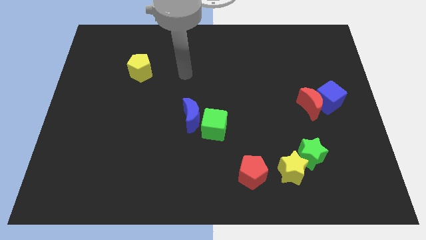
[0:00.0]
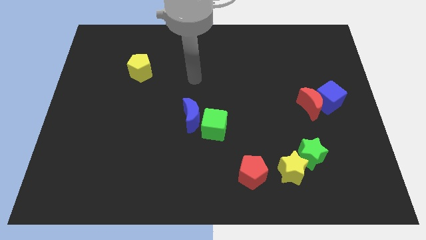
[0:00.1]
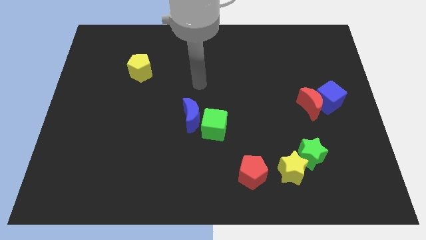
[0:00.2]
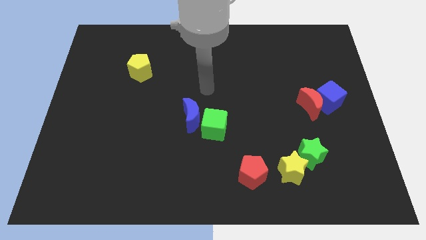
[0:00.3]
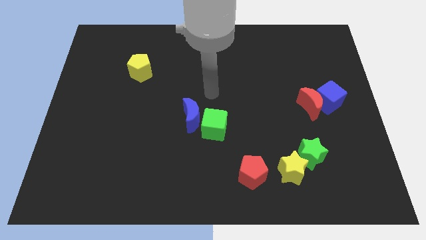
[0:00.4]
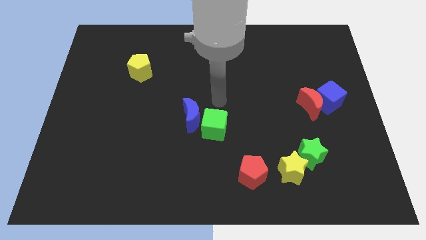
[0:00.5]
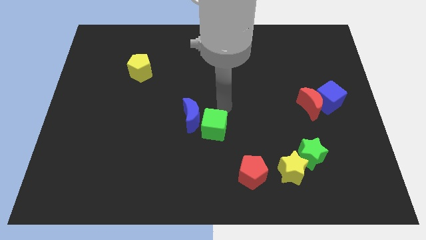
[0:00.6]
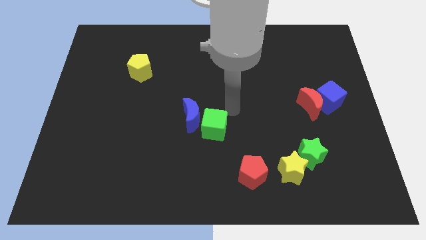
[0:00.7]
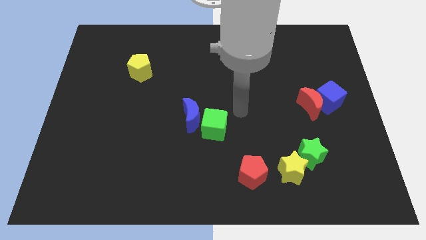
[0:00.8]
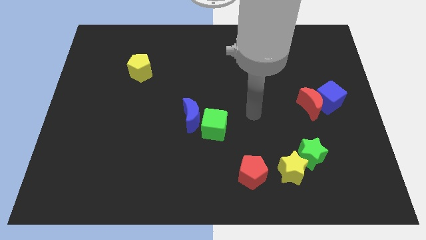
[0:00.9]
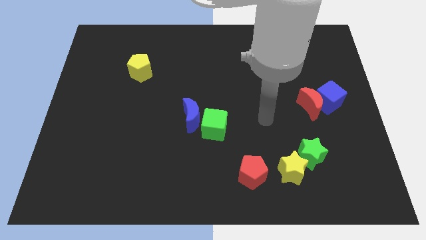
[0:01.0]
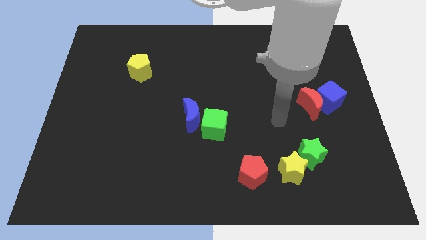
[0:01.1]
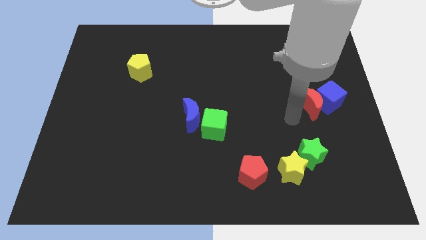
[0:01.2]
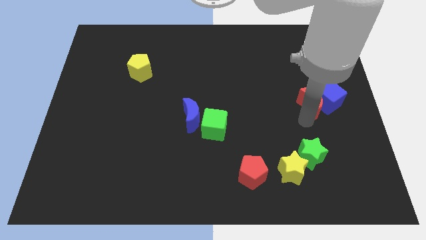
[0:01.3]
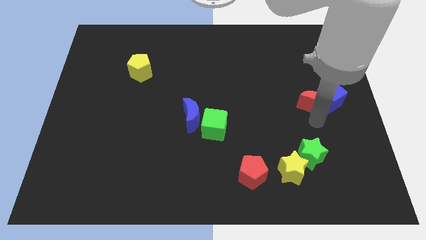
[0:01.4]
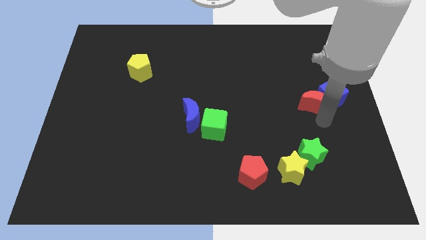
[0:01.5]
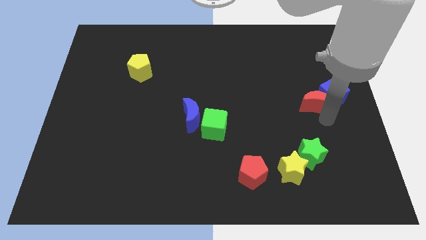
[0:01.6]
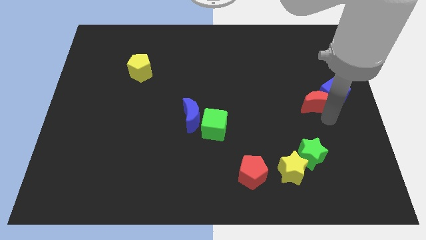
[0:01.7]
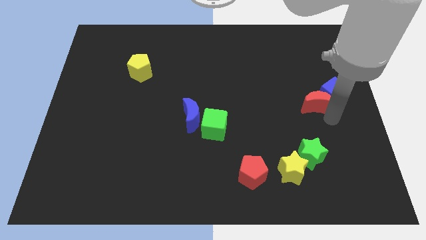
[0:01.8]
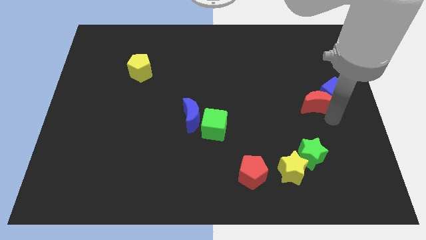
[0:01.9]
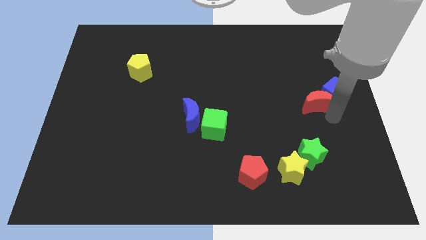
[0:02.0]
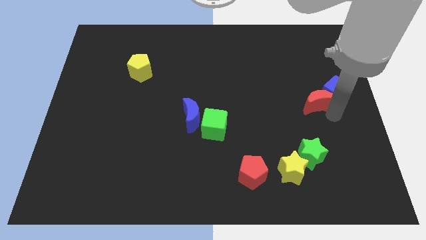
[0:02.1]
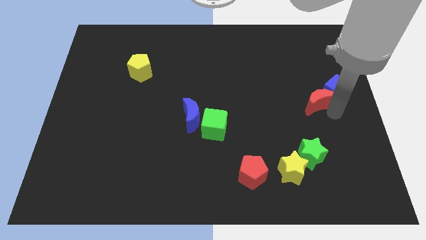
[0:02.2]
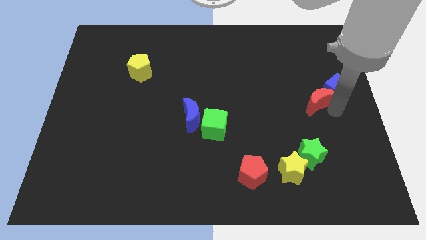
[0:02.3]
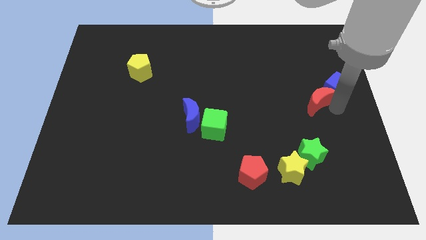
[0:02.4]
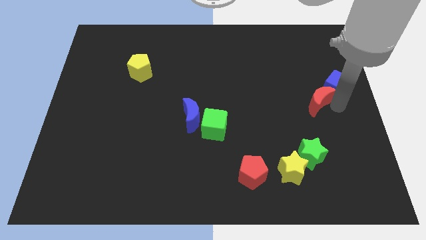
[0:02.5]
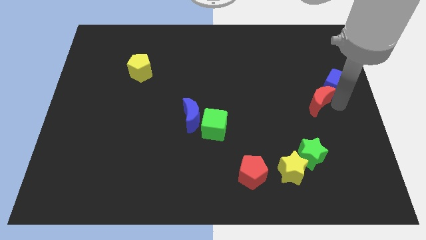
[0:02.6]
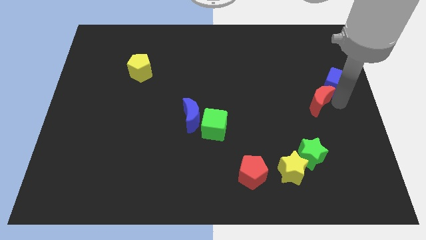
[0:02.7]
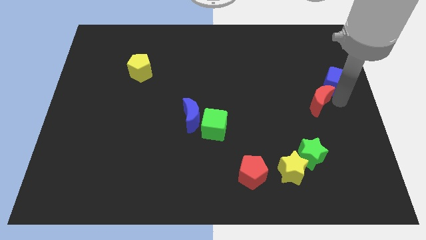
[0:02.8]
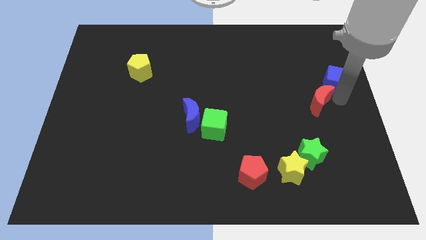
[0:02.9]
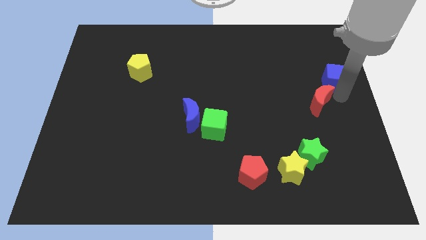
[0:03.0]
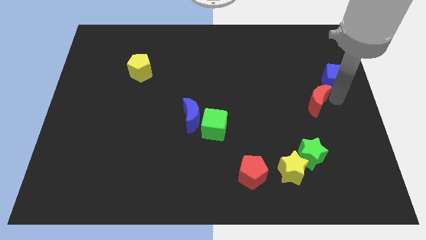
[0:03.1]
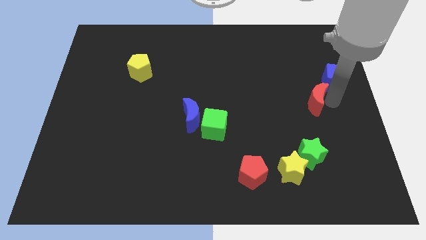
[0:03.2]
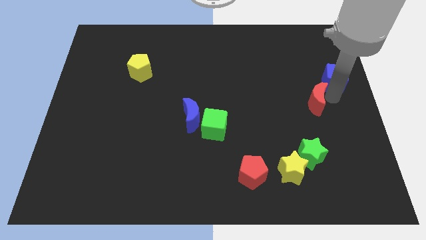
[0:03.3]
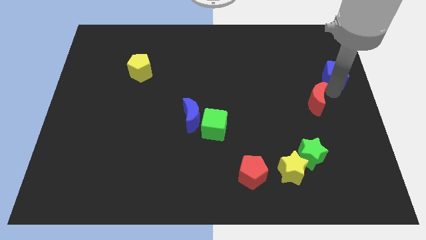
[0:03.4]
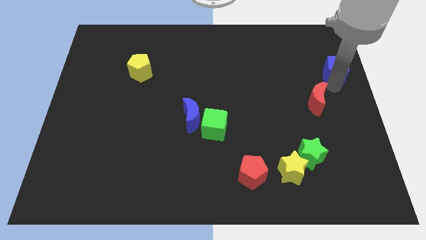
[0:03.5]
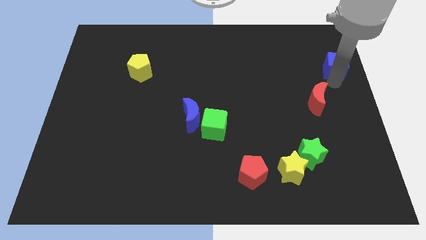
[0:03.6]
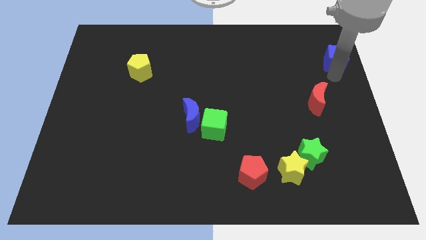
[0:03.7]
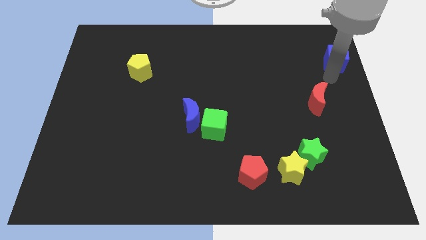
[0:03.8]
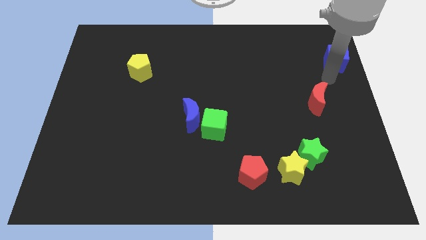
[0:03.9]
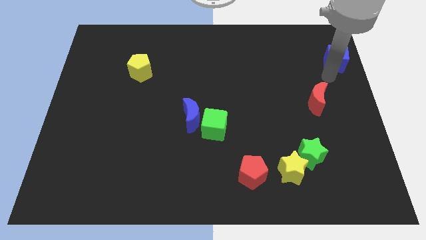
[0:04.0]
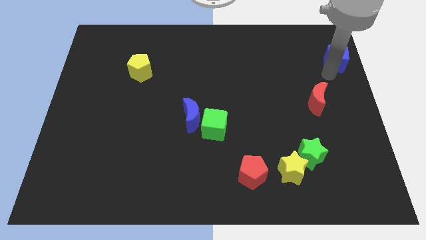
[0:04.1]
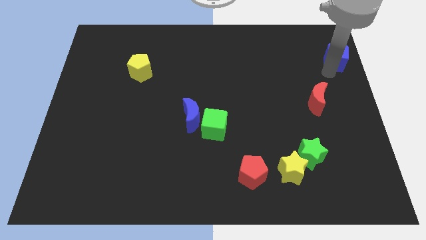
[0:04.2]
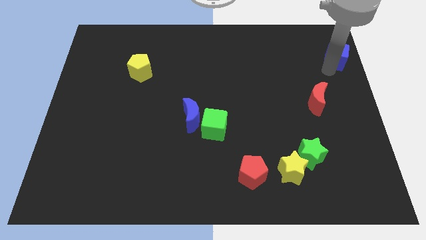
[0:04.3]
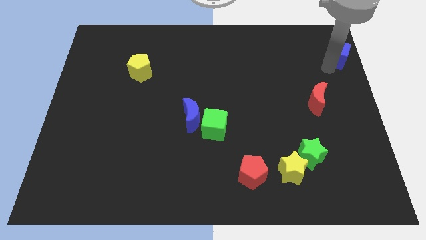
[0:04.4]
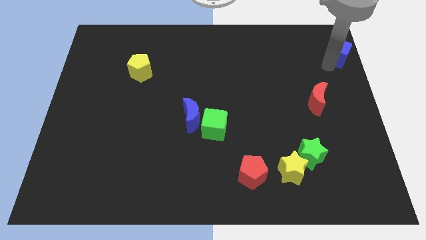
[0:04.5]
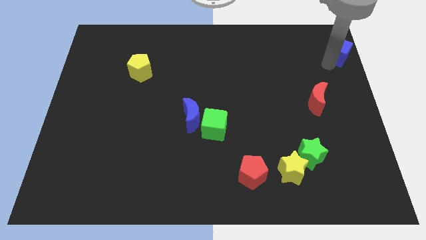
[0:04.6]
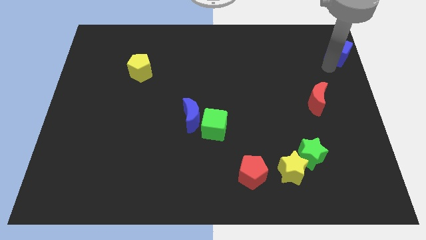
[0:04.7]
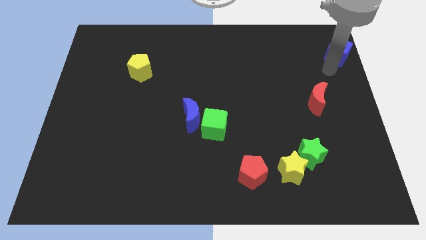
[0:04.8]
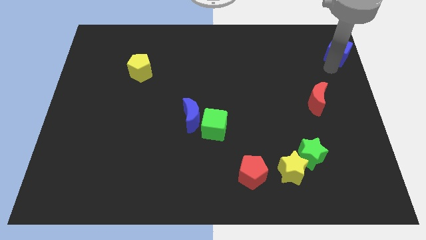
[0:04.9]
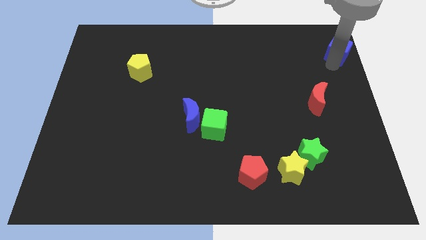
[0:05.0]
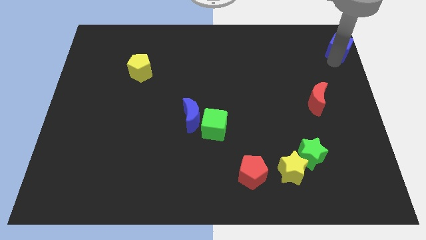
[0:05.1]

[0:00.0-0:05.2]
move the blue cube to the top right

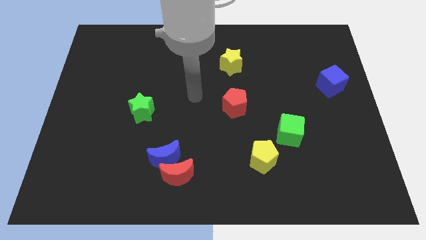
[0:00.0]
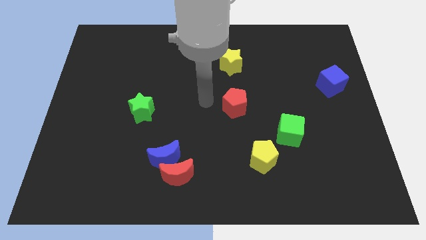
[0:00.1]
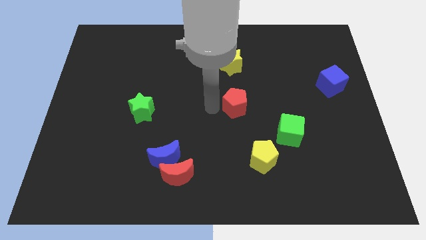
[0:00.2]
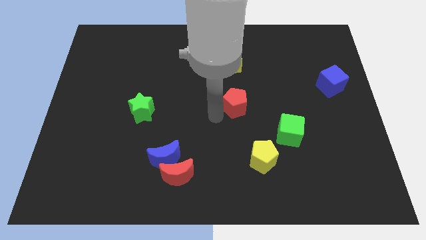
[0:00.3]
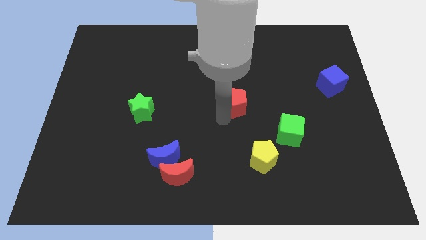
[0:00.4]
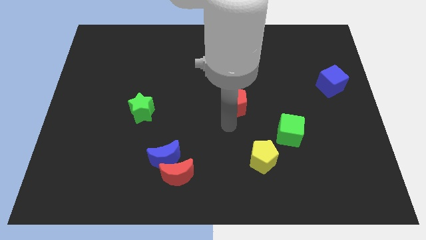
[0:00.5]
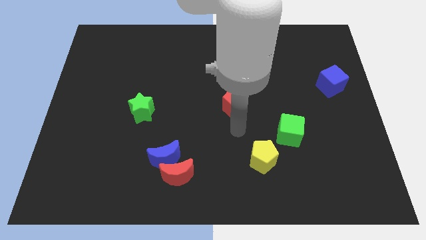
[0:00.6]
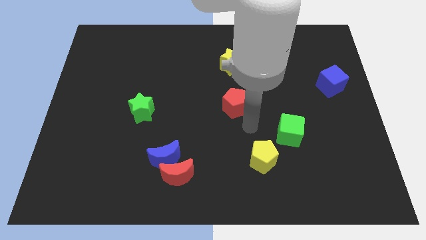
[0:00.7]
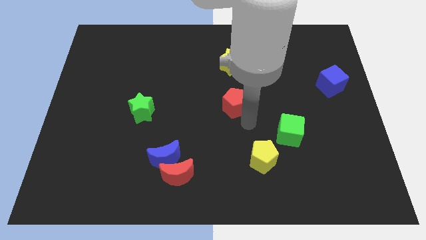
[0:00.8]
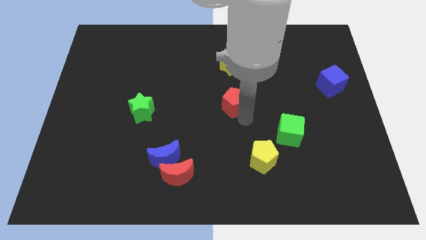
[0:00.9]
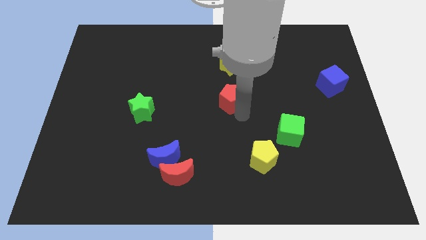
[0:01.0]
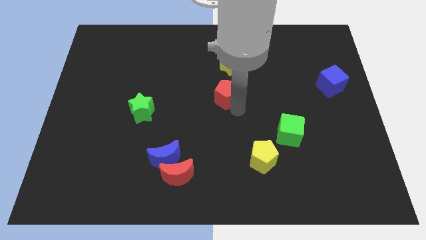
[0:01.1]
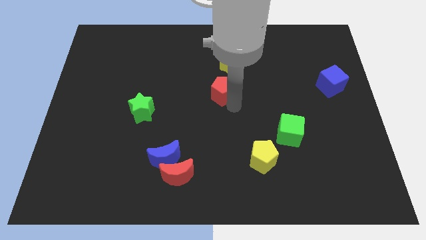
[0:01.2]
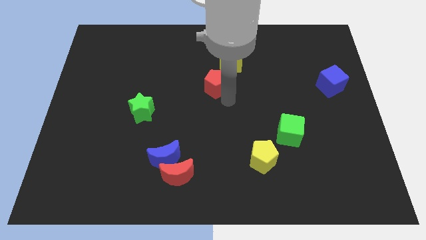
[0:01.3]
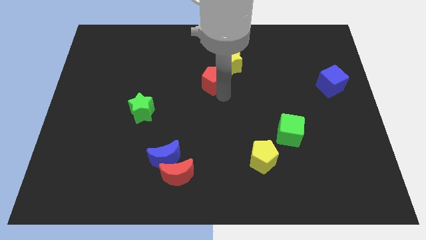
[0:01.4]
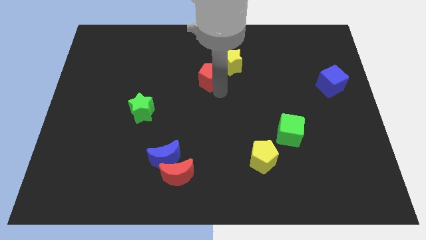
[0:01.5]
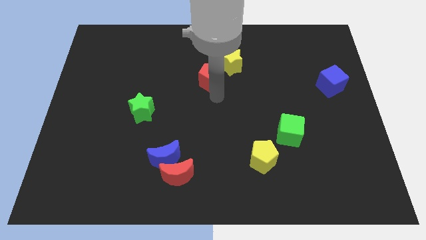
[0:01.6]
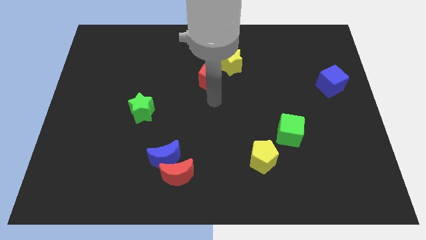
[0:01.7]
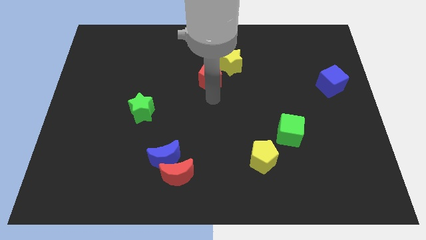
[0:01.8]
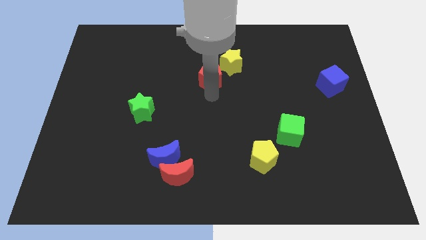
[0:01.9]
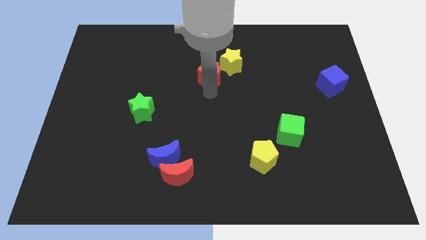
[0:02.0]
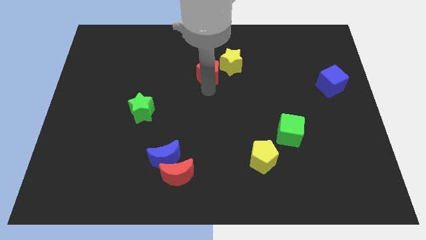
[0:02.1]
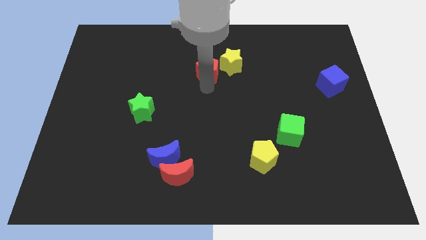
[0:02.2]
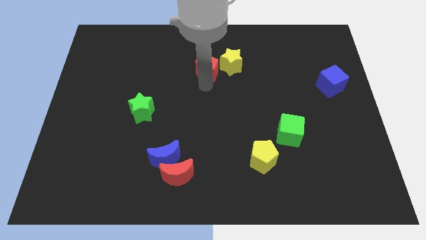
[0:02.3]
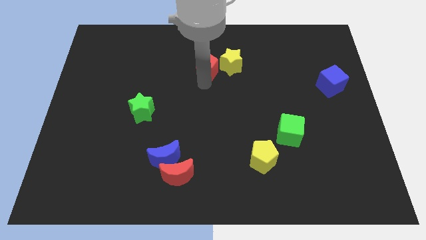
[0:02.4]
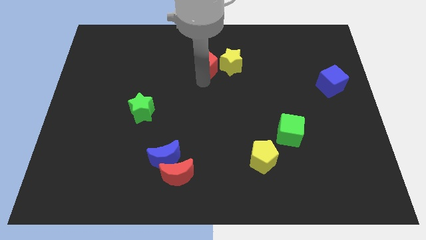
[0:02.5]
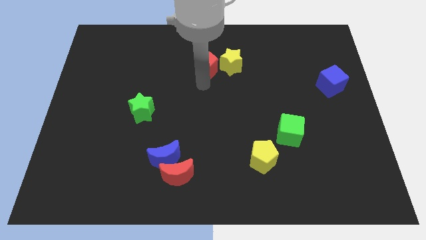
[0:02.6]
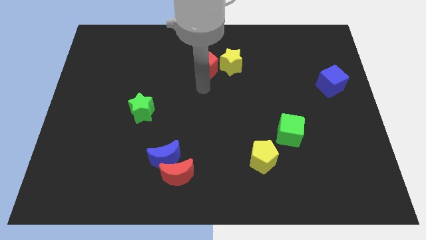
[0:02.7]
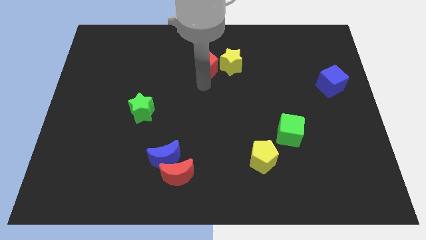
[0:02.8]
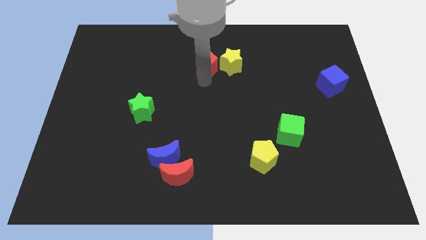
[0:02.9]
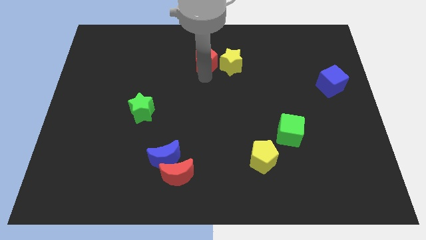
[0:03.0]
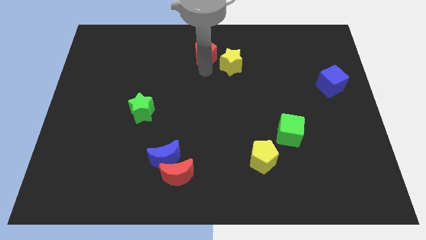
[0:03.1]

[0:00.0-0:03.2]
push the red pentagon to the towards your base
